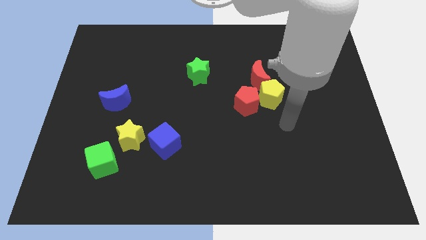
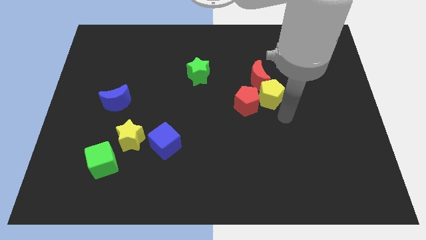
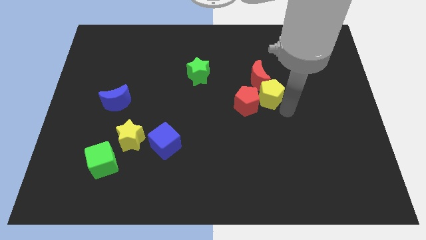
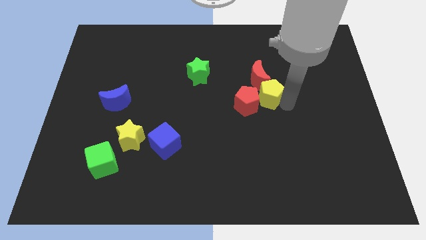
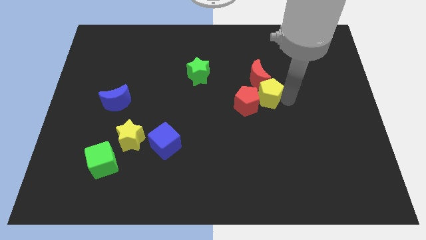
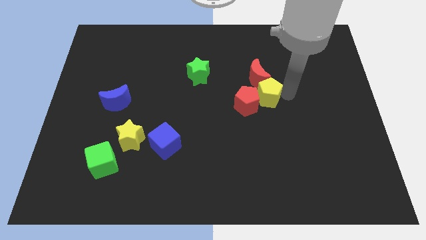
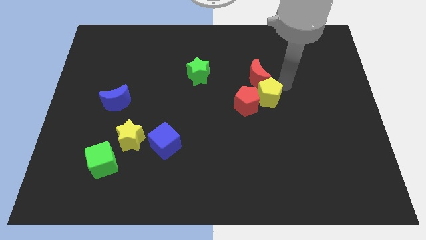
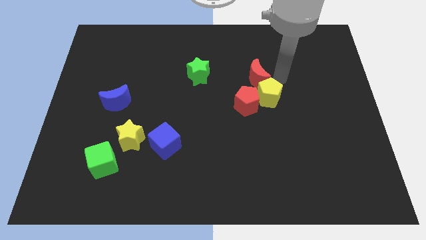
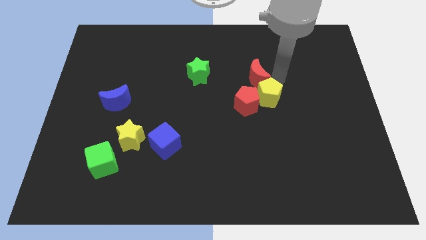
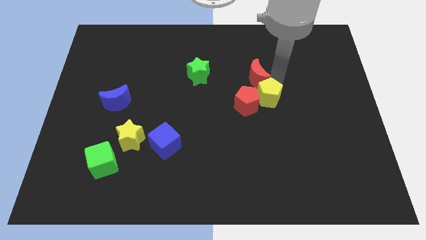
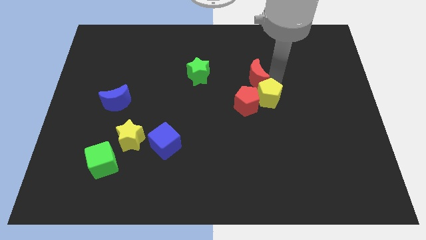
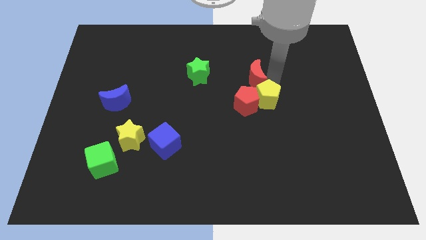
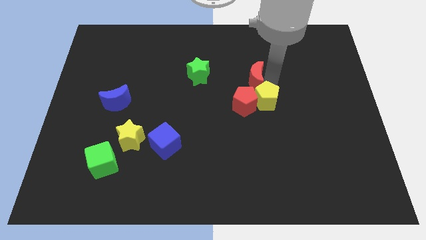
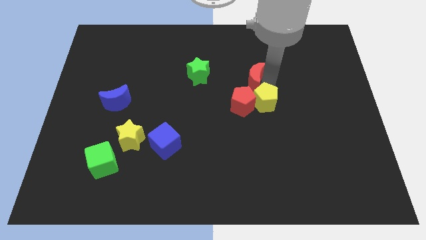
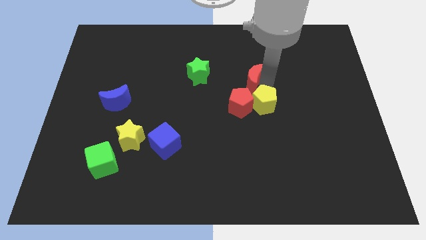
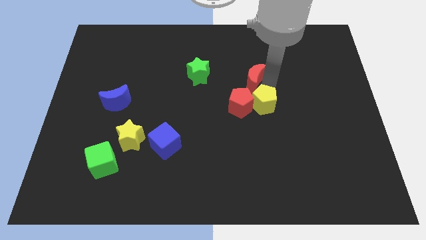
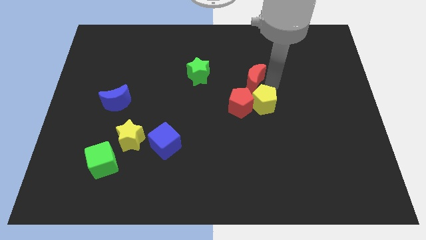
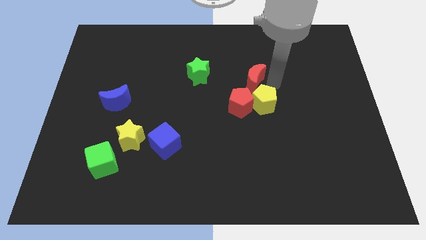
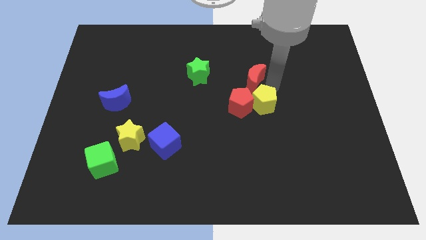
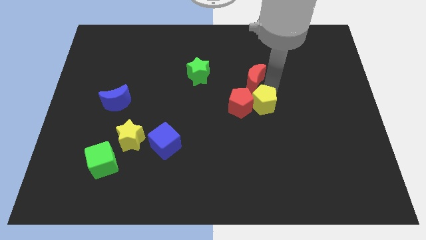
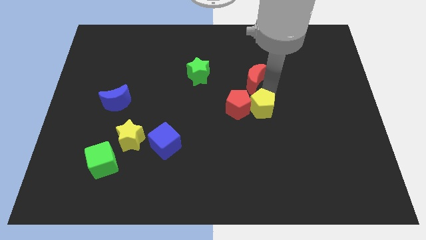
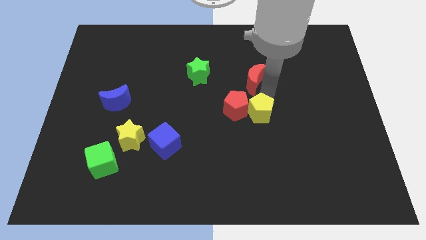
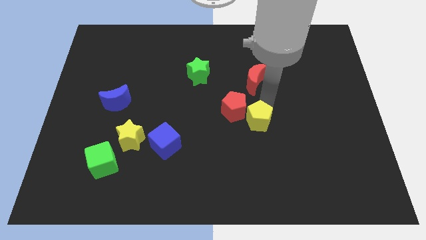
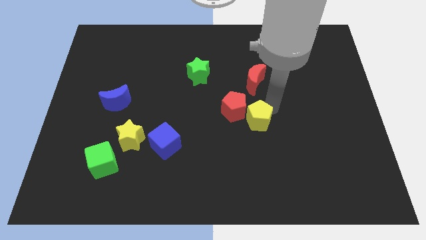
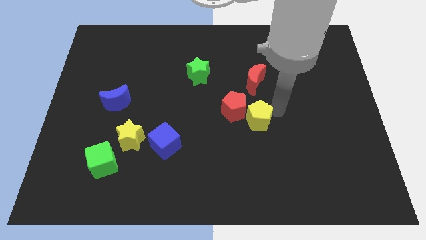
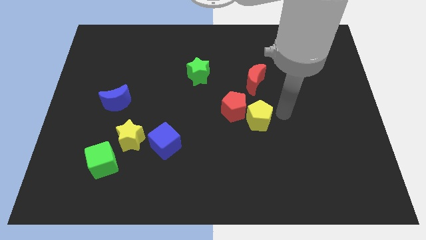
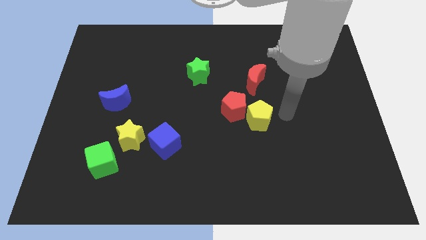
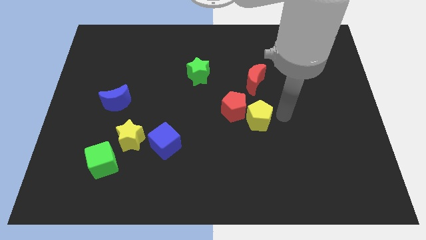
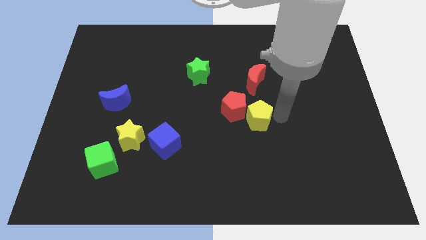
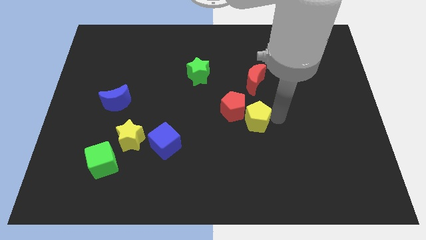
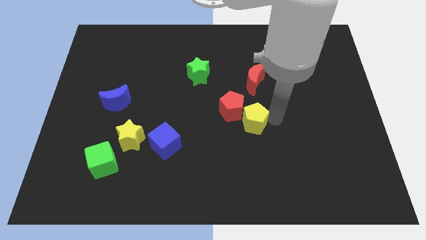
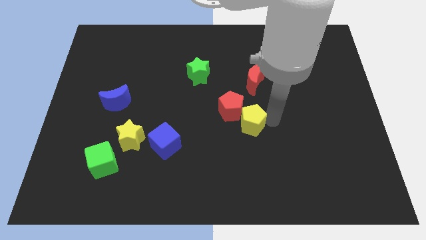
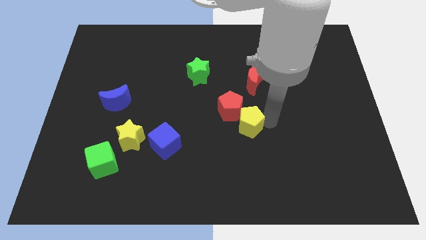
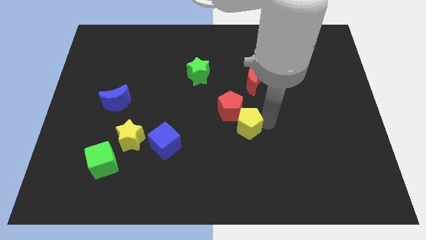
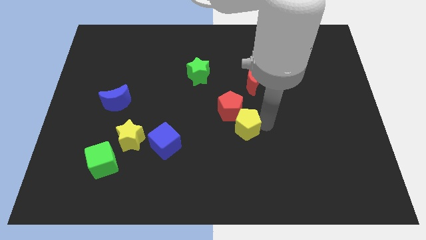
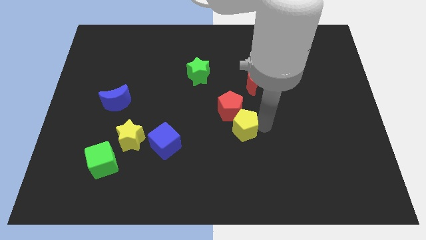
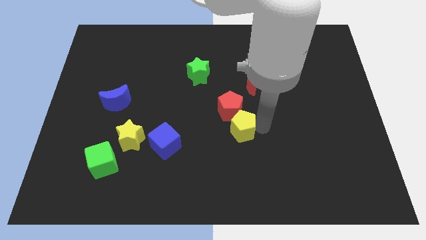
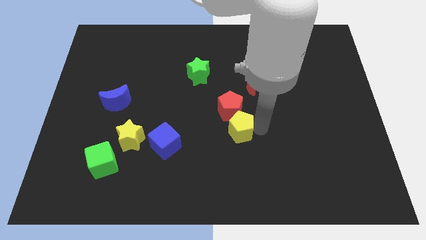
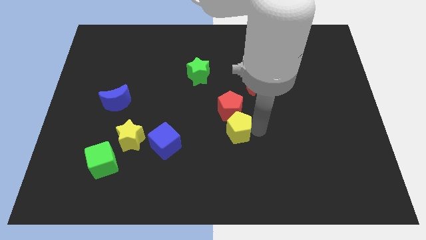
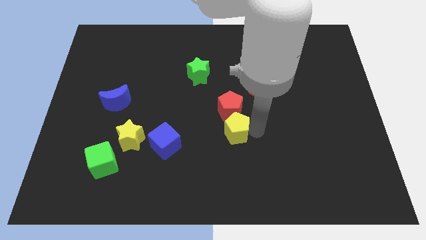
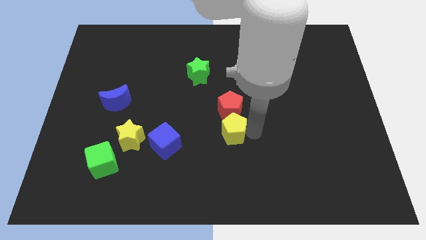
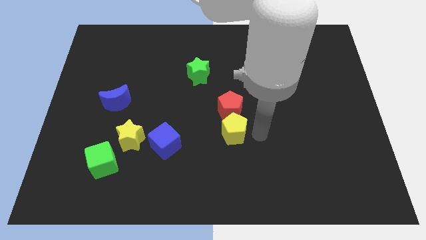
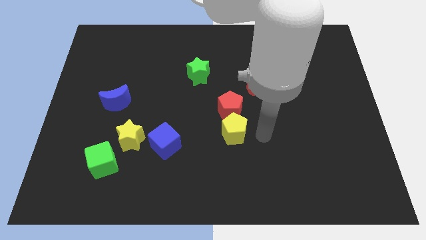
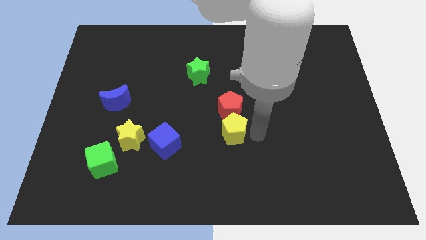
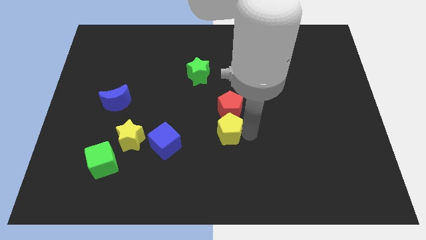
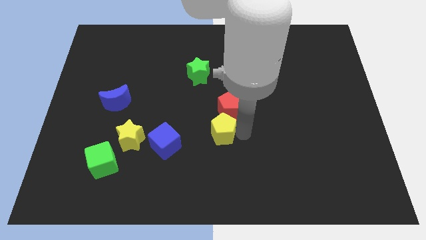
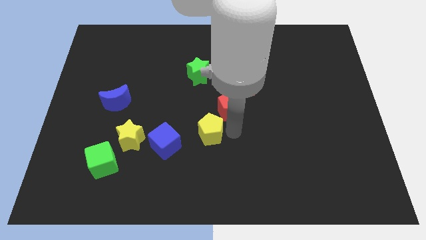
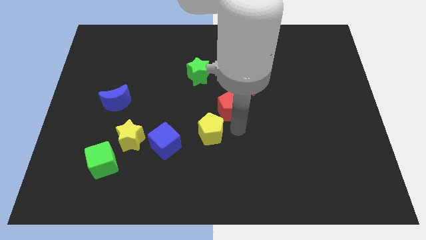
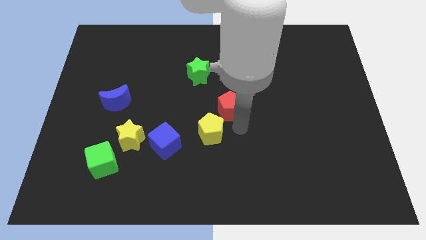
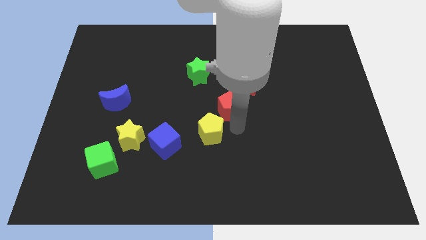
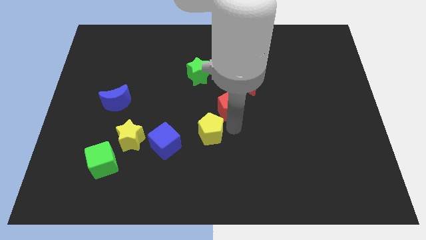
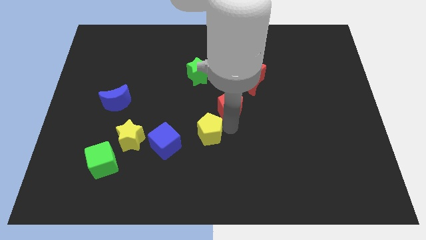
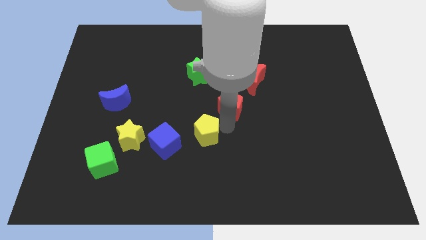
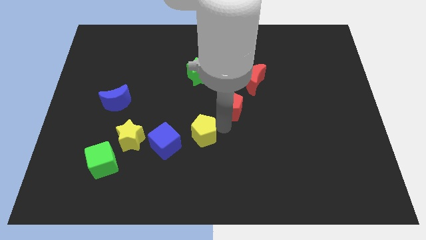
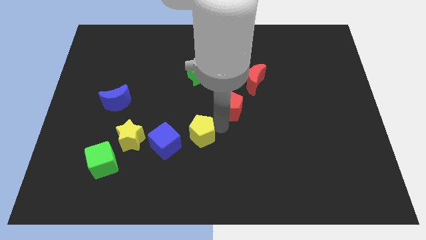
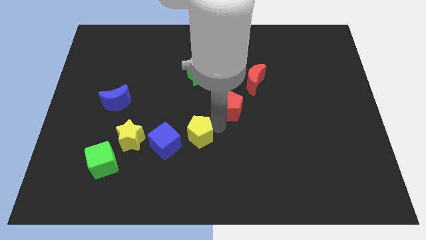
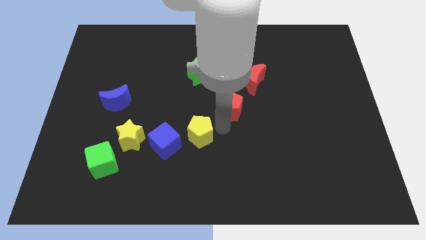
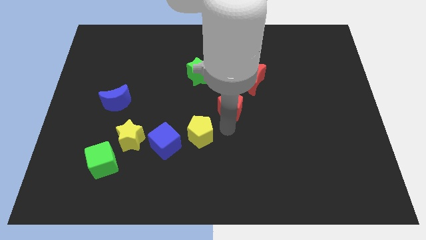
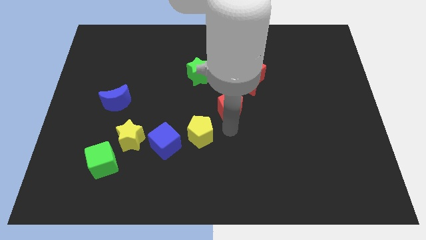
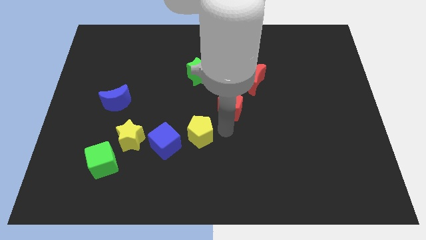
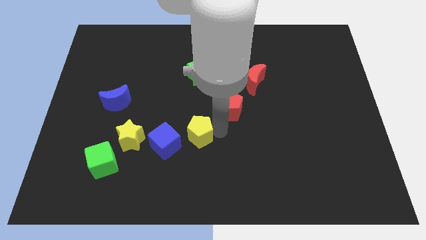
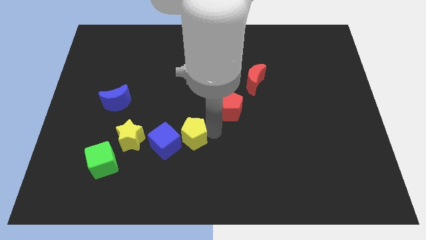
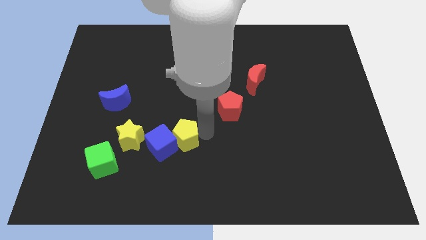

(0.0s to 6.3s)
put the yellow pentagon towards the blue cube

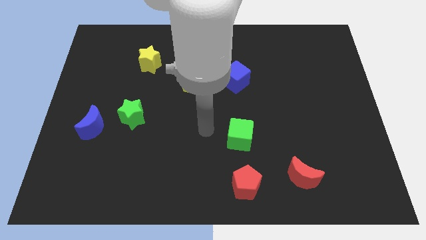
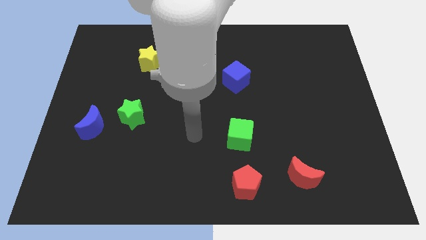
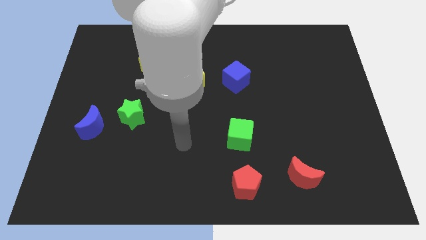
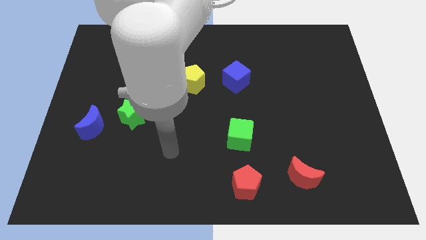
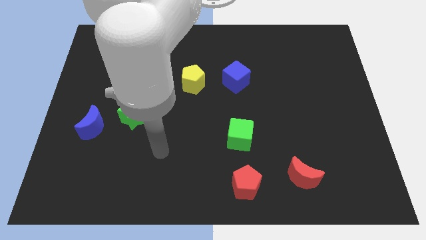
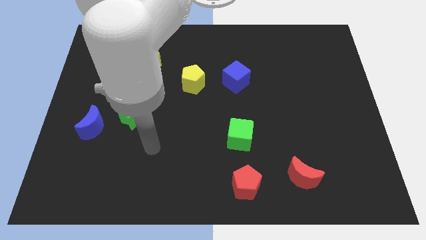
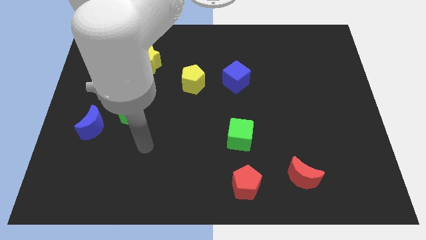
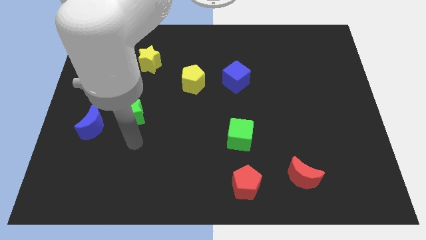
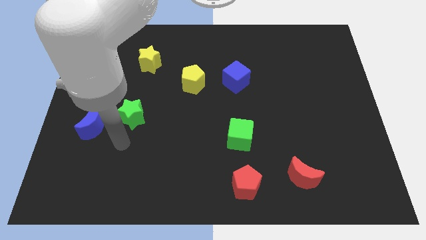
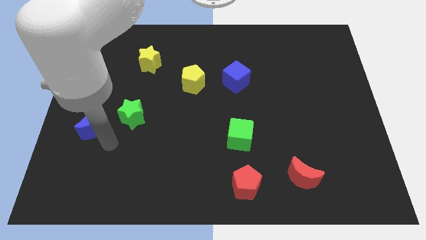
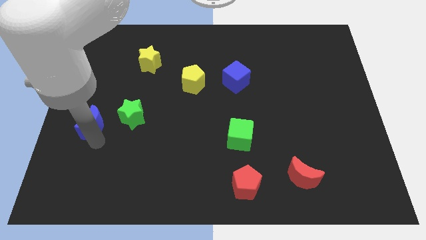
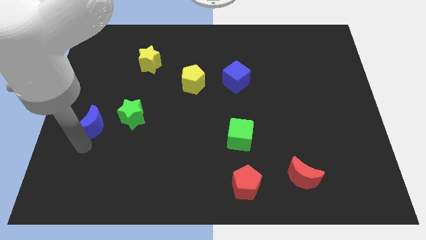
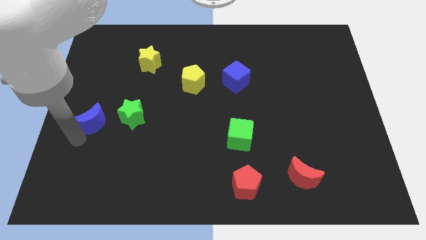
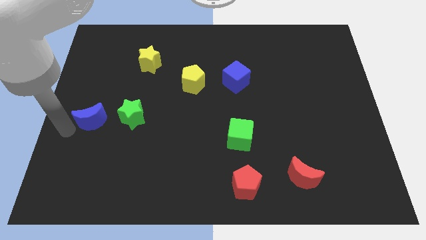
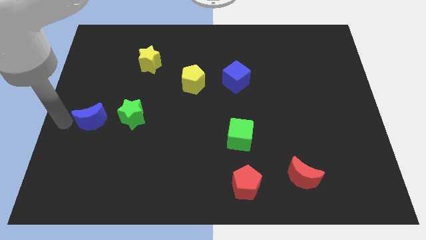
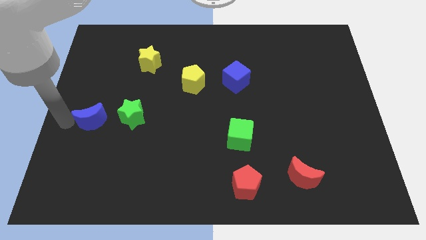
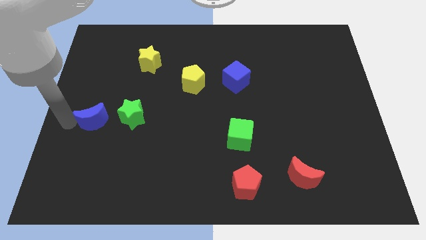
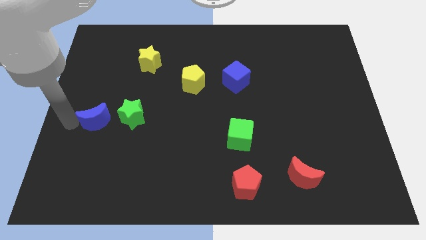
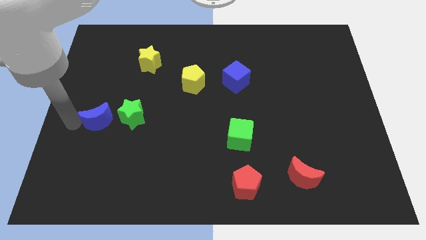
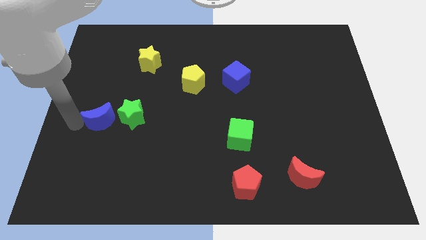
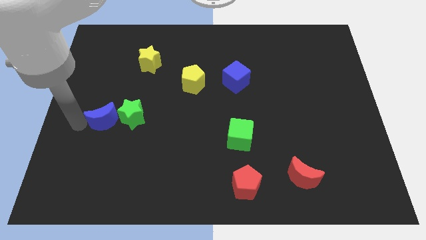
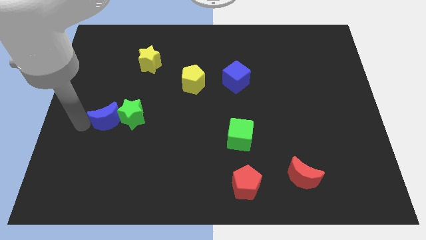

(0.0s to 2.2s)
move the blue moon to the green star
